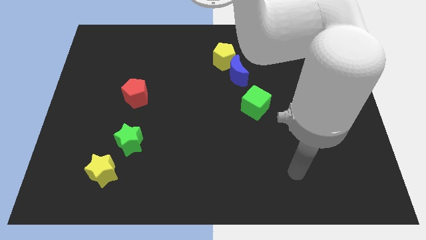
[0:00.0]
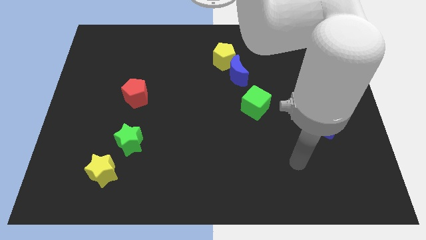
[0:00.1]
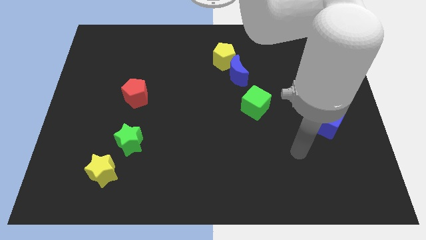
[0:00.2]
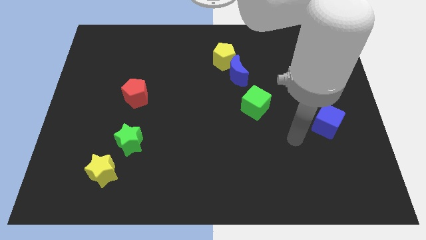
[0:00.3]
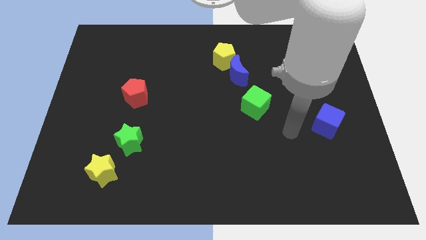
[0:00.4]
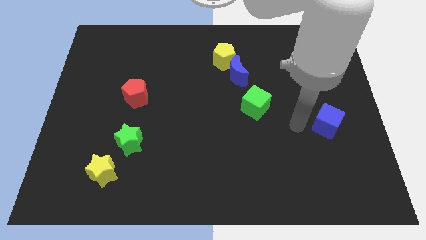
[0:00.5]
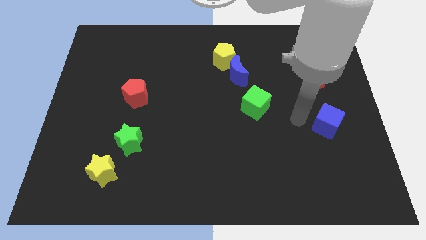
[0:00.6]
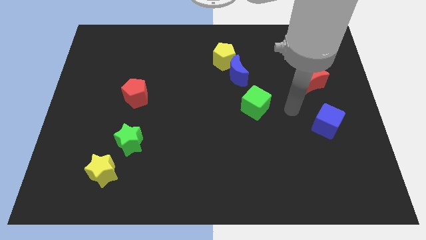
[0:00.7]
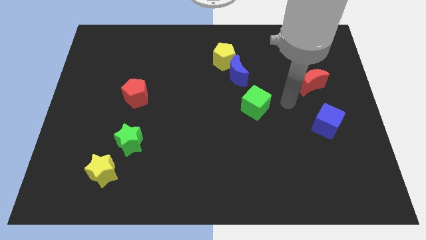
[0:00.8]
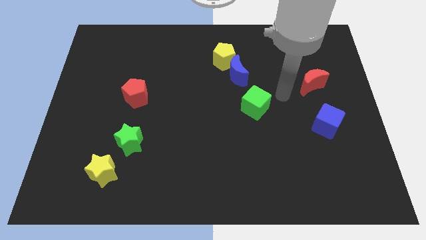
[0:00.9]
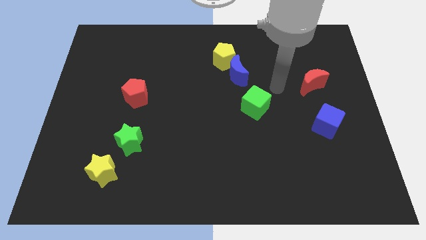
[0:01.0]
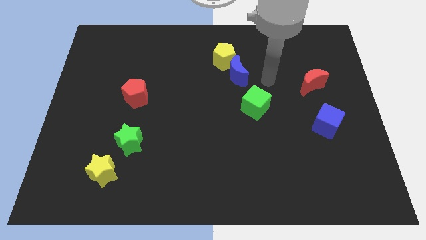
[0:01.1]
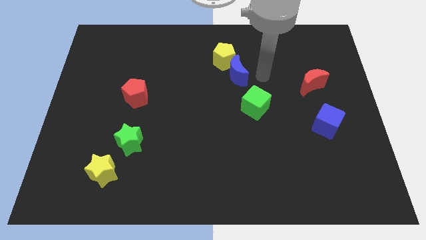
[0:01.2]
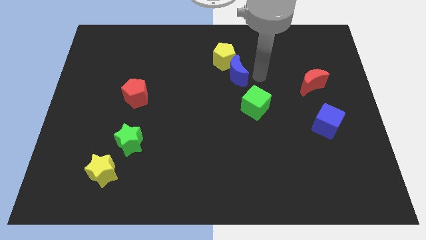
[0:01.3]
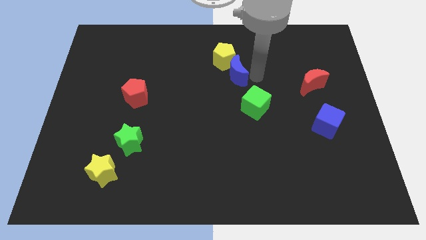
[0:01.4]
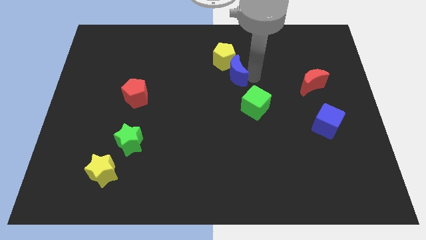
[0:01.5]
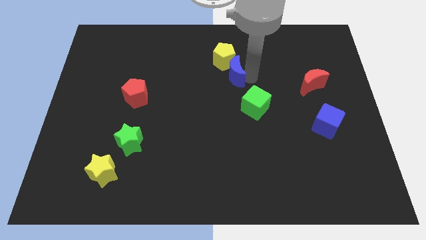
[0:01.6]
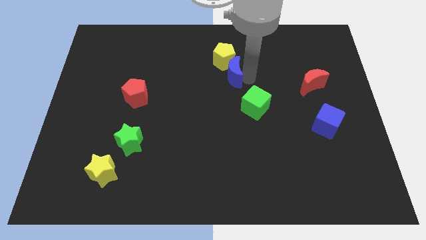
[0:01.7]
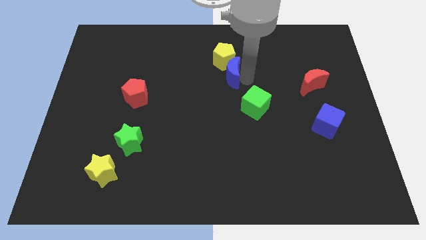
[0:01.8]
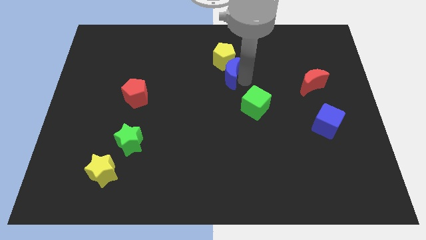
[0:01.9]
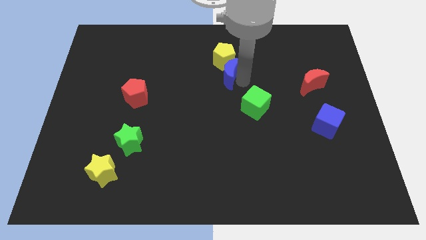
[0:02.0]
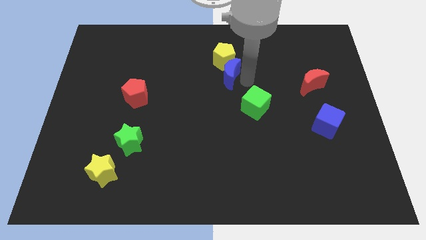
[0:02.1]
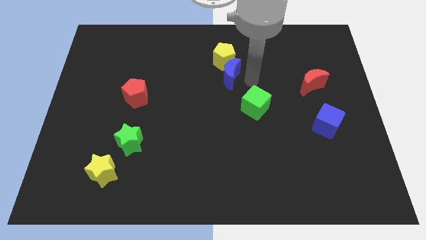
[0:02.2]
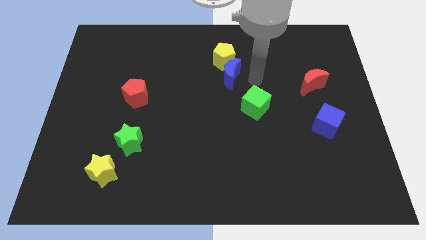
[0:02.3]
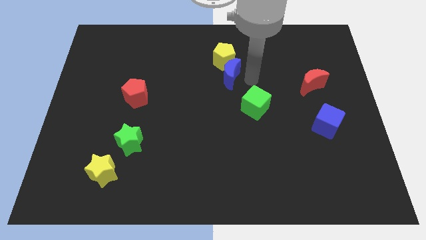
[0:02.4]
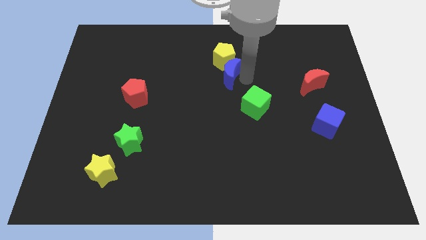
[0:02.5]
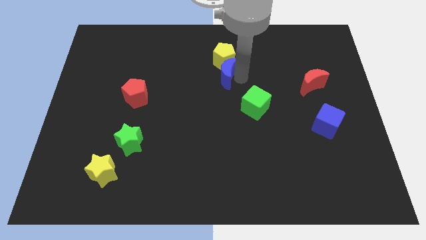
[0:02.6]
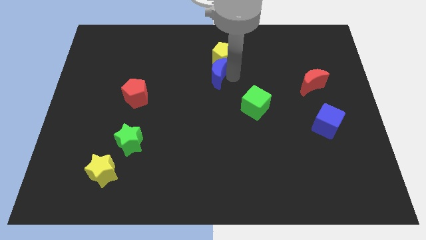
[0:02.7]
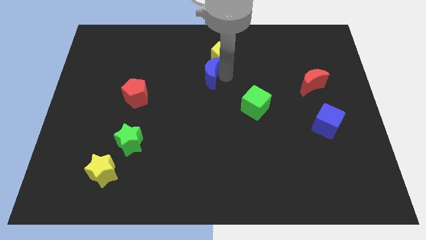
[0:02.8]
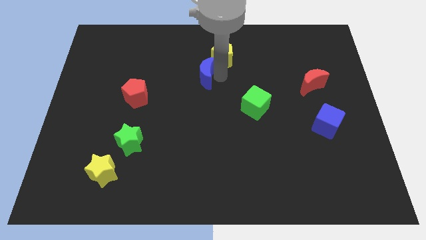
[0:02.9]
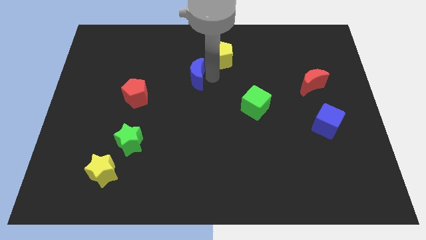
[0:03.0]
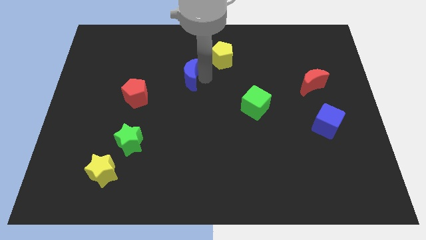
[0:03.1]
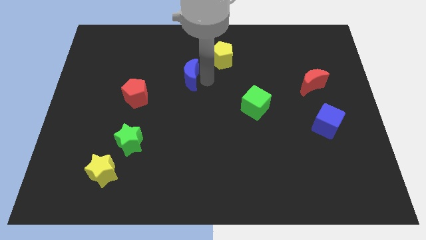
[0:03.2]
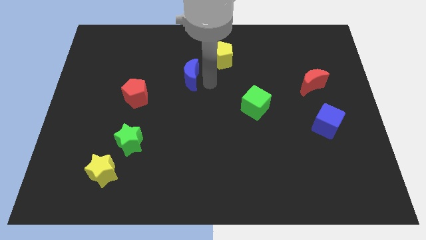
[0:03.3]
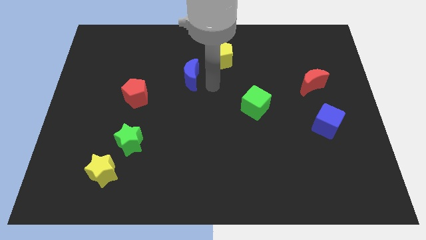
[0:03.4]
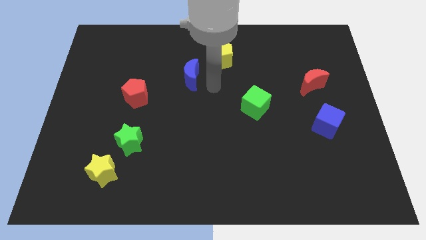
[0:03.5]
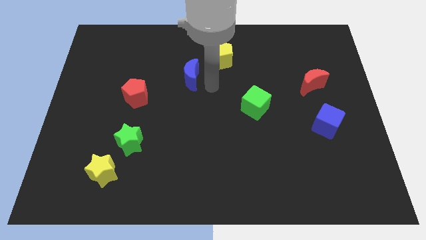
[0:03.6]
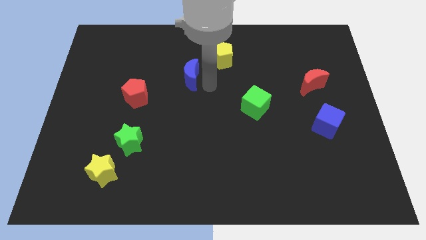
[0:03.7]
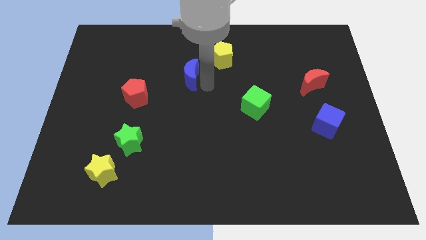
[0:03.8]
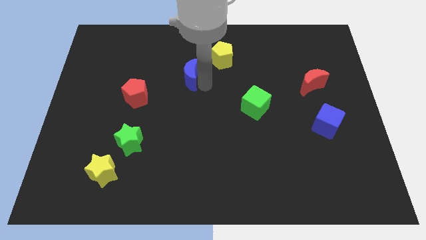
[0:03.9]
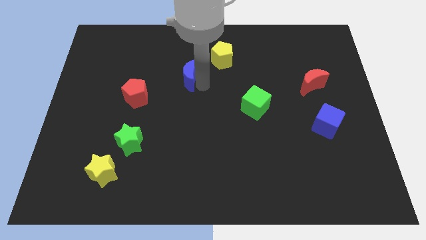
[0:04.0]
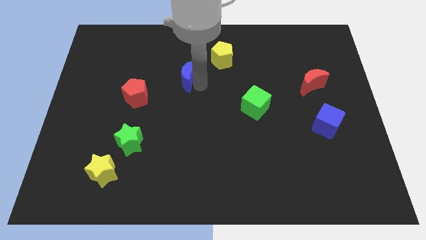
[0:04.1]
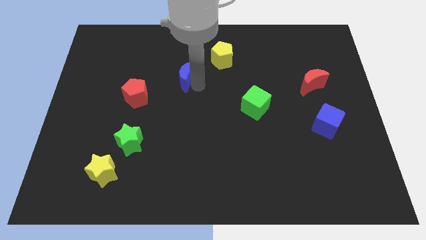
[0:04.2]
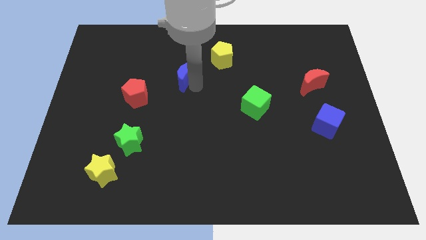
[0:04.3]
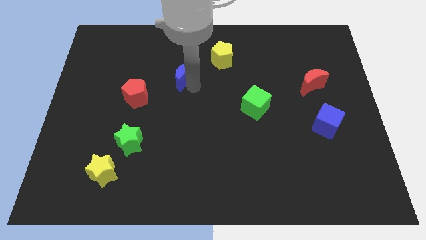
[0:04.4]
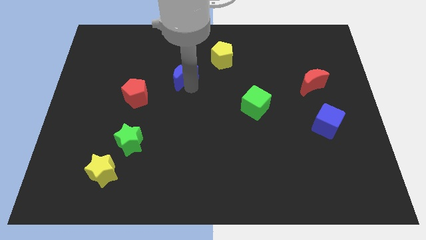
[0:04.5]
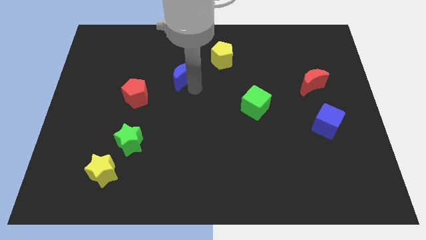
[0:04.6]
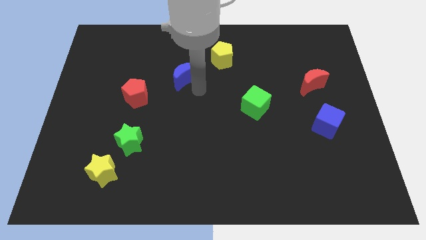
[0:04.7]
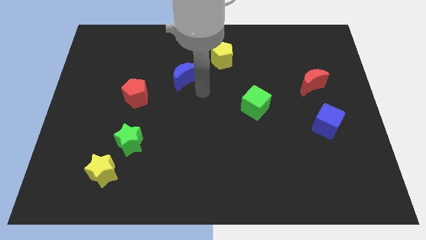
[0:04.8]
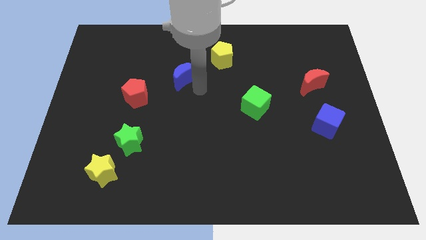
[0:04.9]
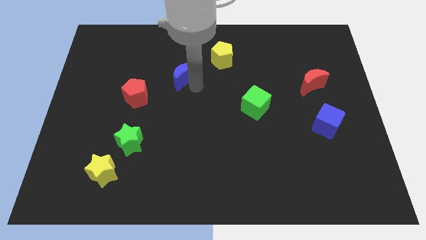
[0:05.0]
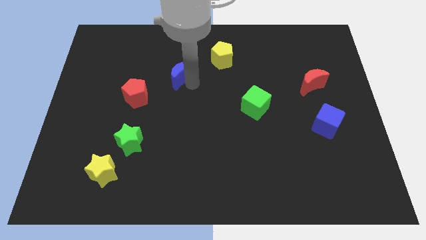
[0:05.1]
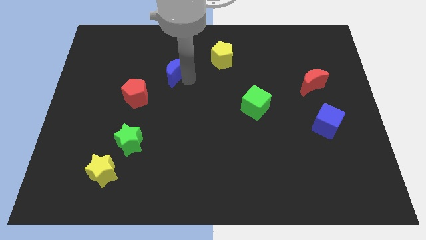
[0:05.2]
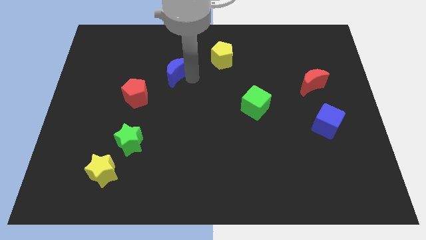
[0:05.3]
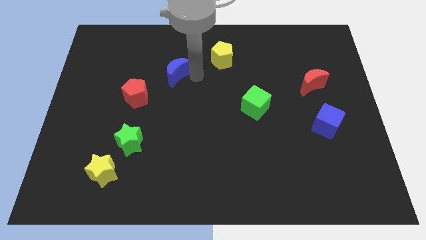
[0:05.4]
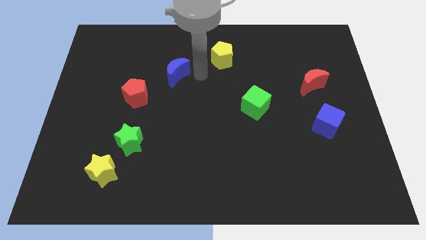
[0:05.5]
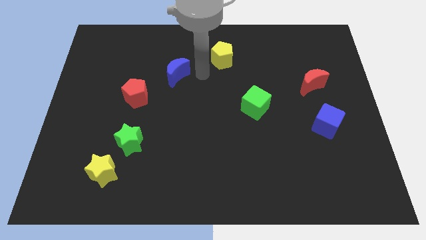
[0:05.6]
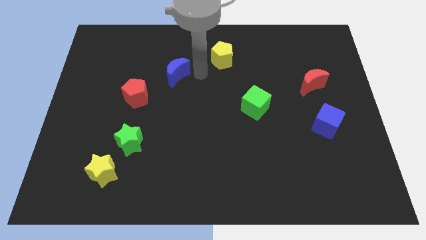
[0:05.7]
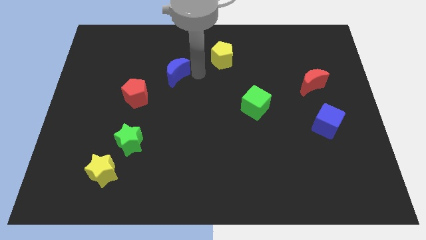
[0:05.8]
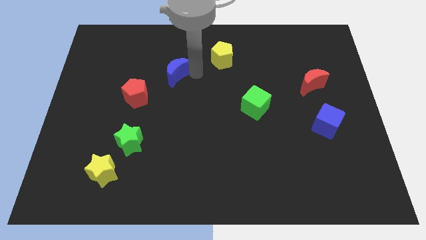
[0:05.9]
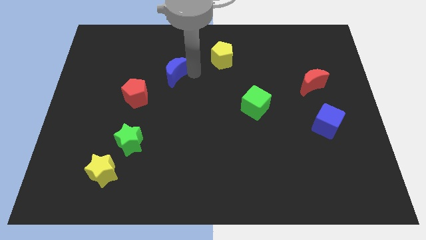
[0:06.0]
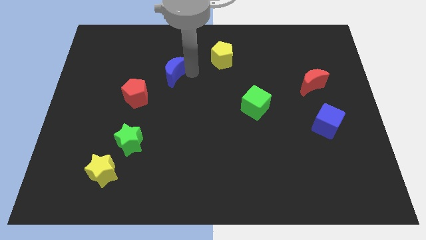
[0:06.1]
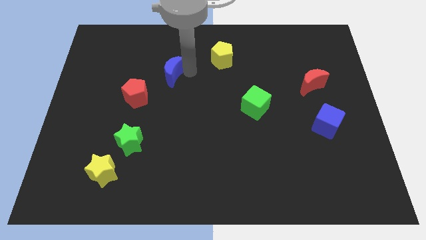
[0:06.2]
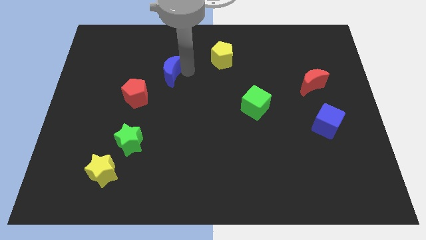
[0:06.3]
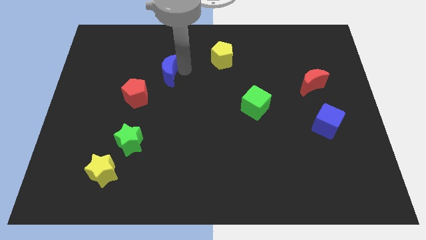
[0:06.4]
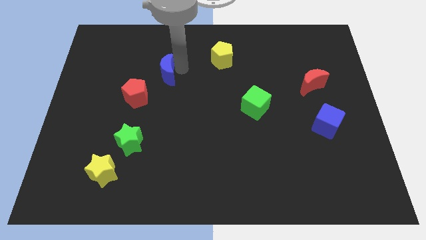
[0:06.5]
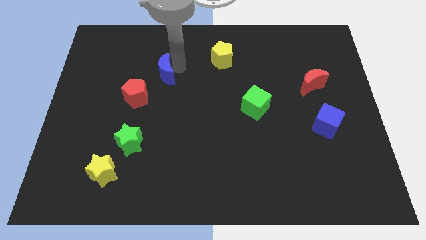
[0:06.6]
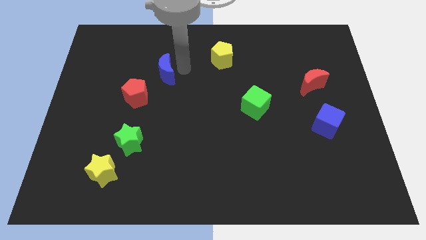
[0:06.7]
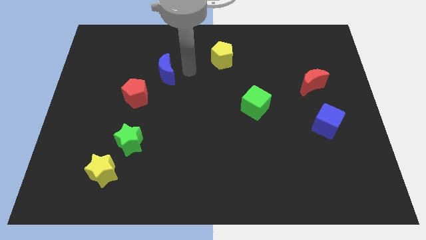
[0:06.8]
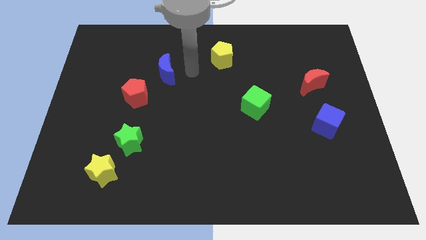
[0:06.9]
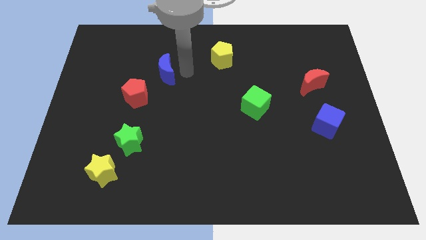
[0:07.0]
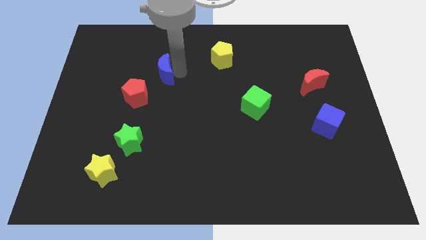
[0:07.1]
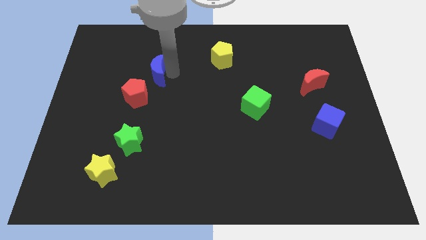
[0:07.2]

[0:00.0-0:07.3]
slide the blue moon left

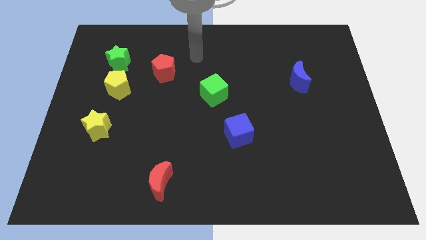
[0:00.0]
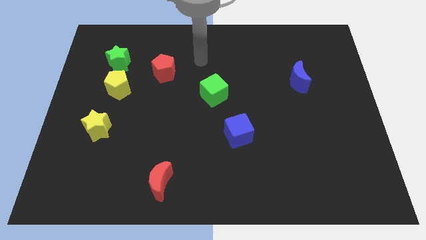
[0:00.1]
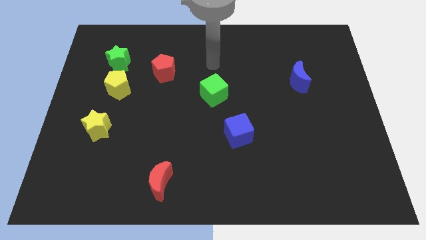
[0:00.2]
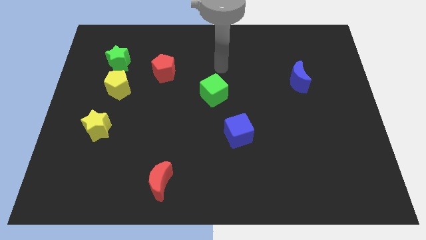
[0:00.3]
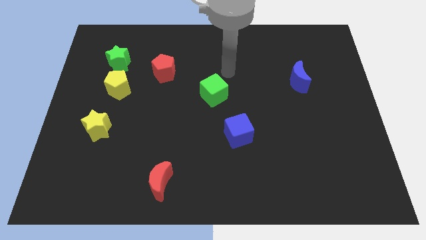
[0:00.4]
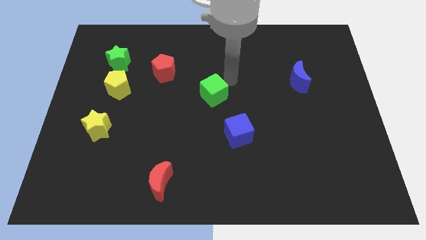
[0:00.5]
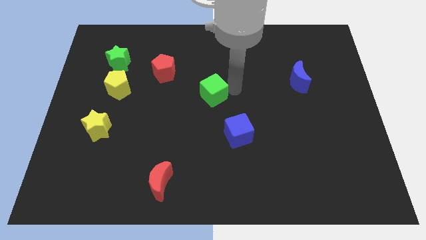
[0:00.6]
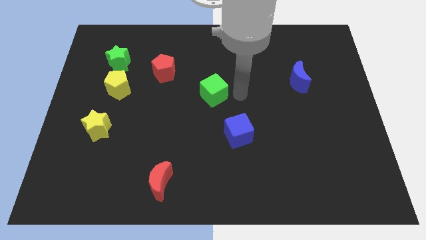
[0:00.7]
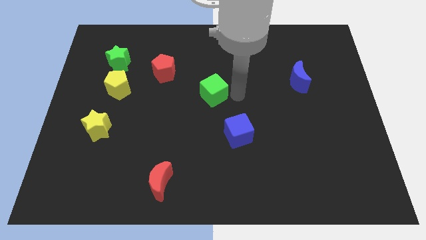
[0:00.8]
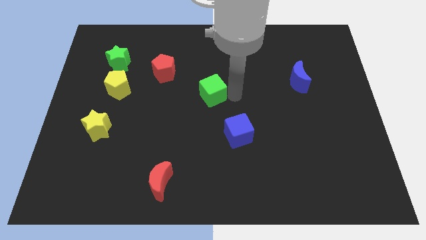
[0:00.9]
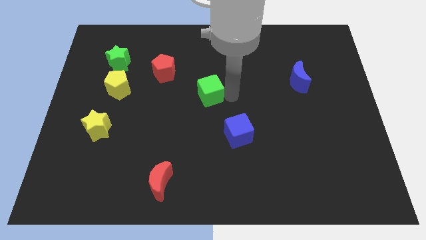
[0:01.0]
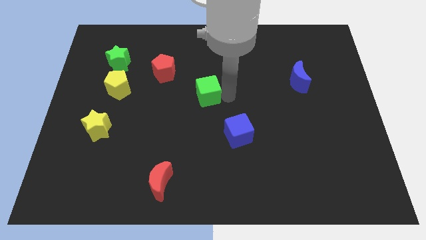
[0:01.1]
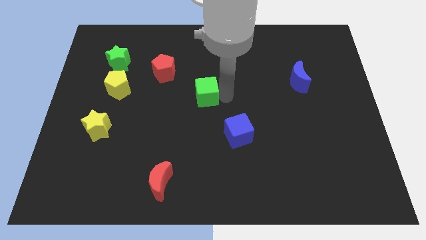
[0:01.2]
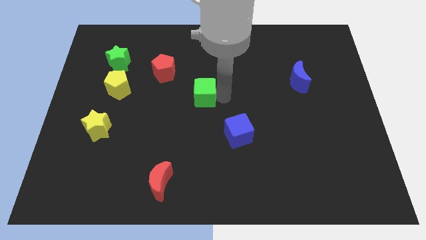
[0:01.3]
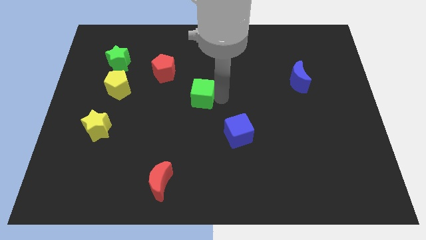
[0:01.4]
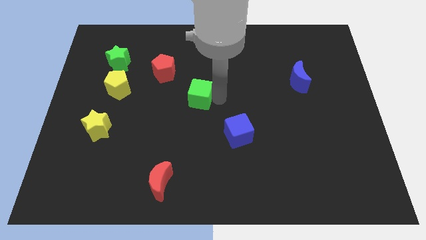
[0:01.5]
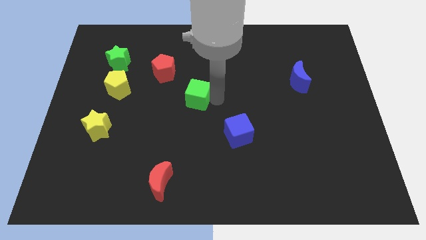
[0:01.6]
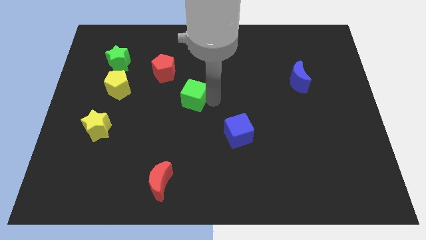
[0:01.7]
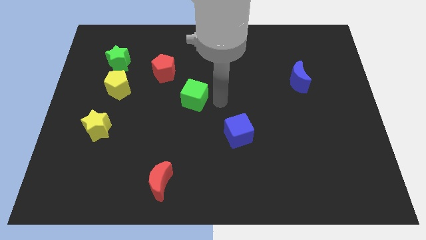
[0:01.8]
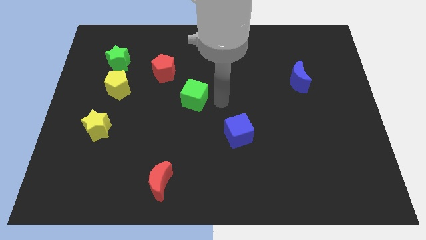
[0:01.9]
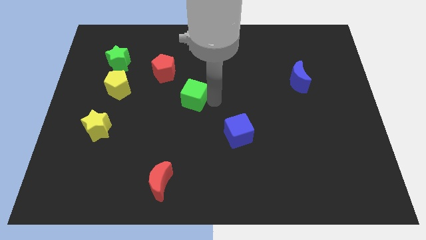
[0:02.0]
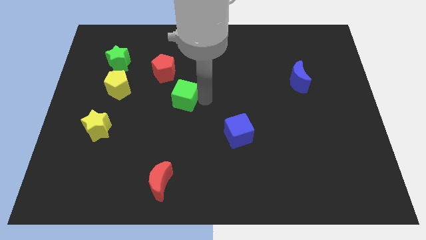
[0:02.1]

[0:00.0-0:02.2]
slightly move the green cube left
